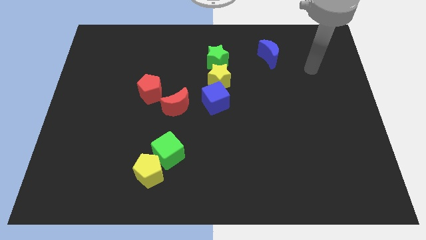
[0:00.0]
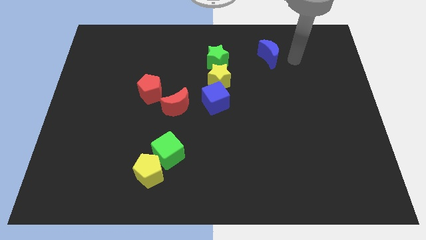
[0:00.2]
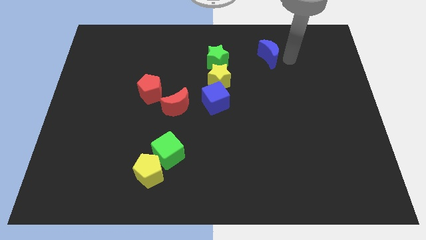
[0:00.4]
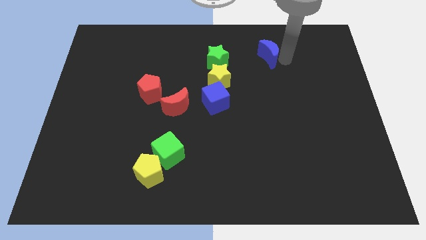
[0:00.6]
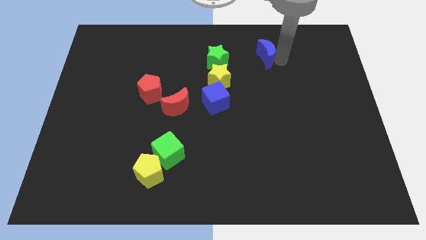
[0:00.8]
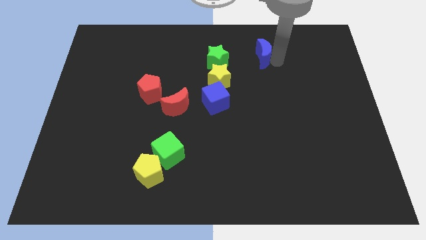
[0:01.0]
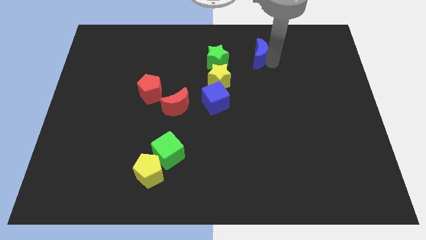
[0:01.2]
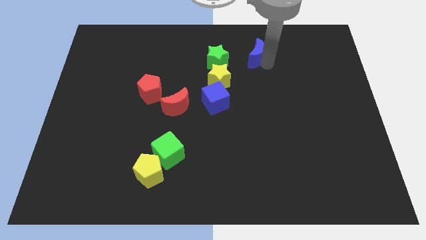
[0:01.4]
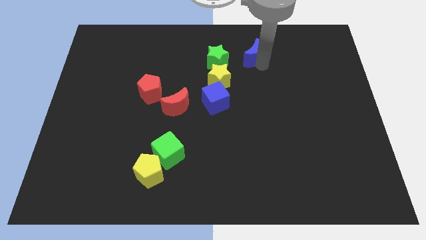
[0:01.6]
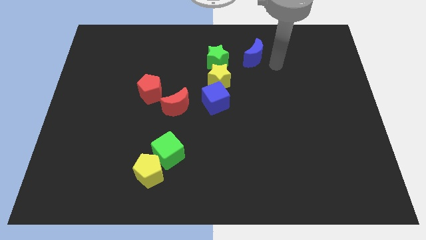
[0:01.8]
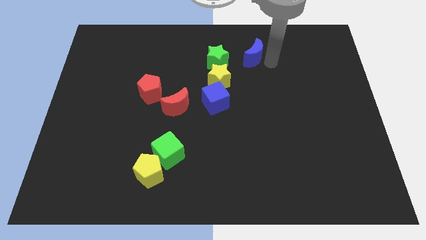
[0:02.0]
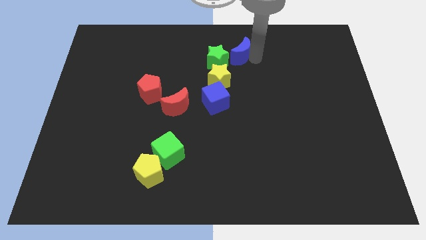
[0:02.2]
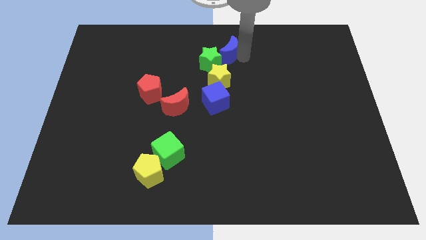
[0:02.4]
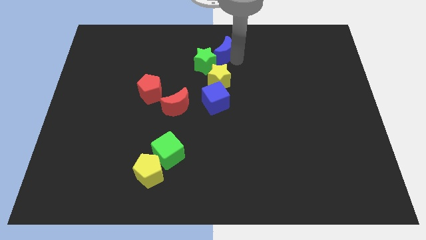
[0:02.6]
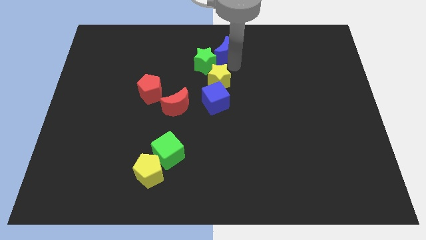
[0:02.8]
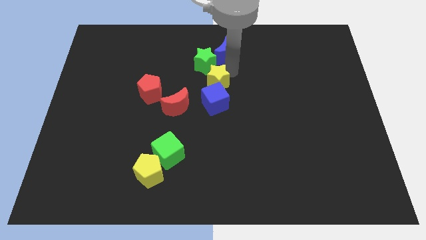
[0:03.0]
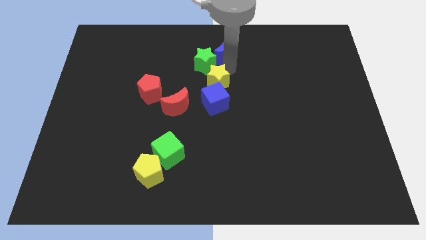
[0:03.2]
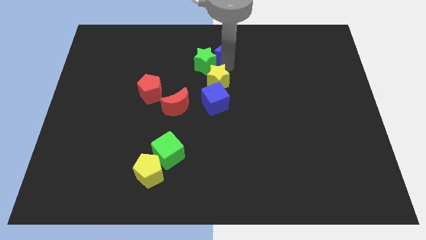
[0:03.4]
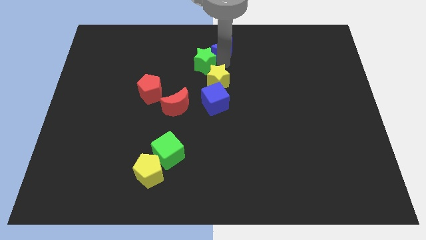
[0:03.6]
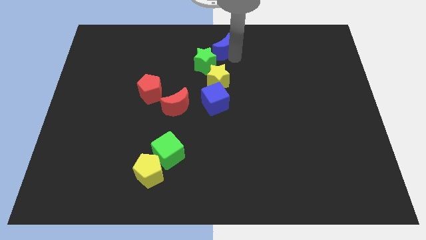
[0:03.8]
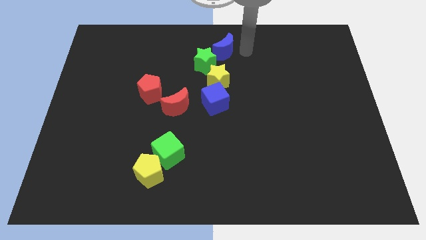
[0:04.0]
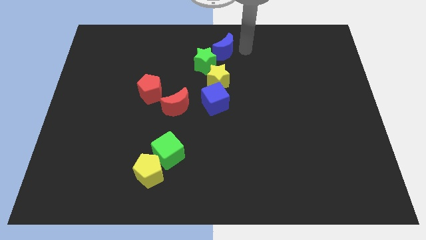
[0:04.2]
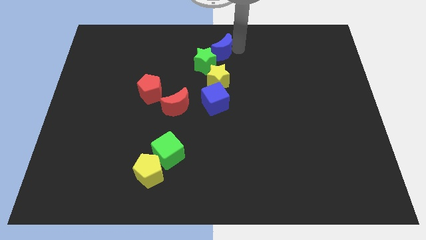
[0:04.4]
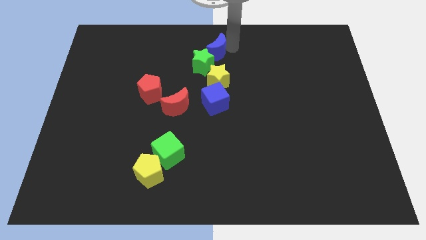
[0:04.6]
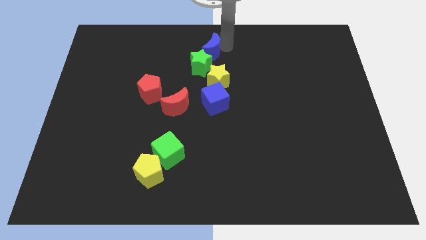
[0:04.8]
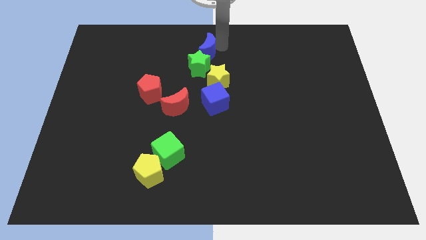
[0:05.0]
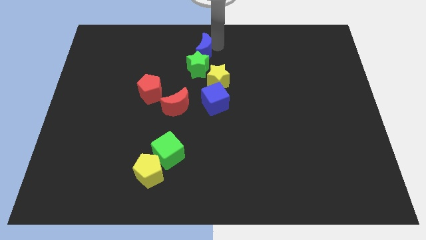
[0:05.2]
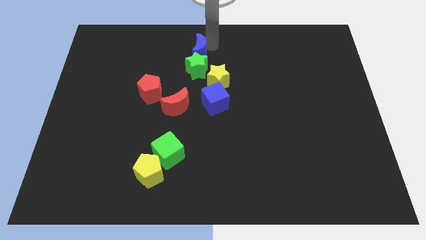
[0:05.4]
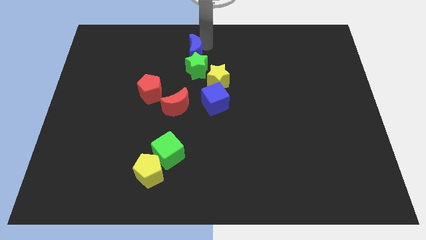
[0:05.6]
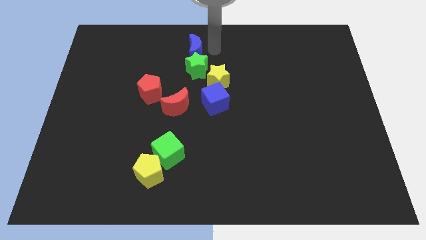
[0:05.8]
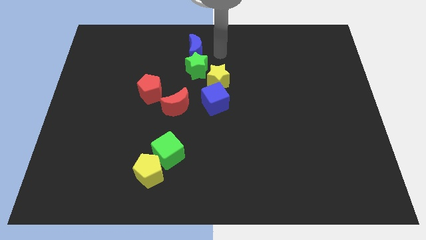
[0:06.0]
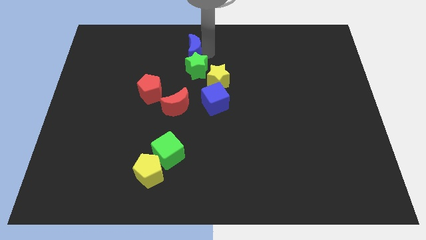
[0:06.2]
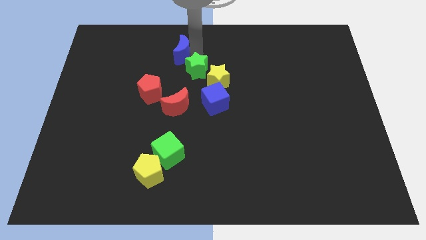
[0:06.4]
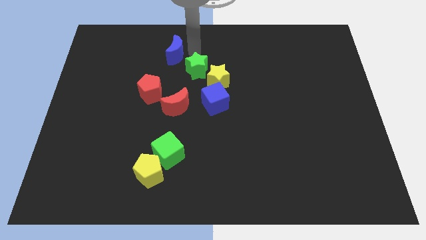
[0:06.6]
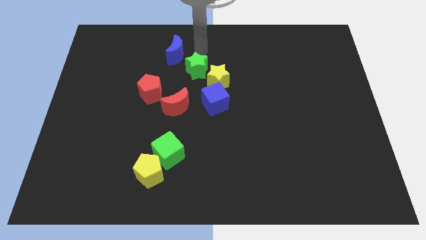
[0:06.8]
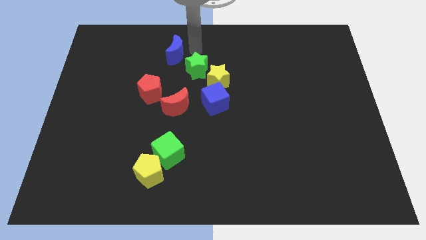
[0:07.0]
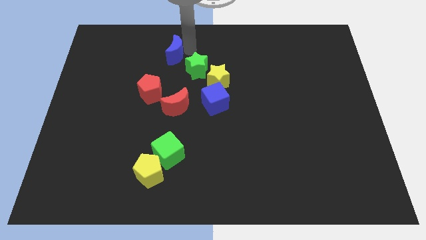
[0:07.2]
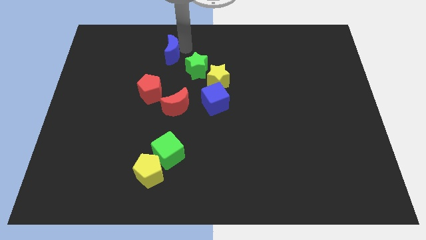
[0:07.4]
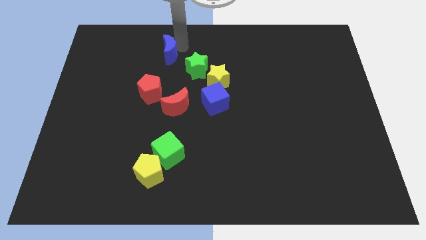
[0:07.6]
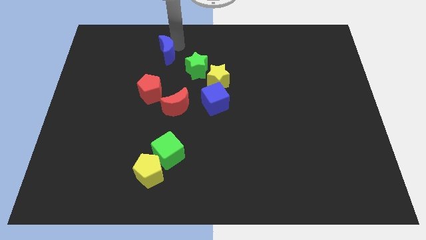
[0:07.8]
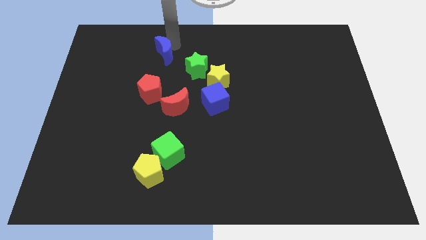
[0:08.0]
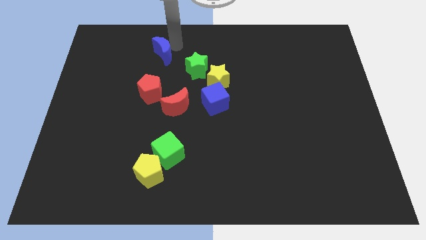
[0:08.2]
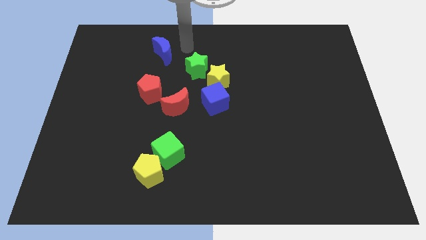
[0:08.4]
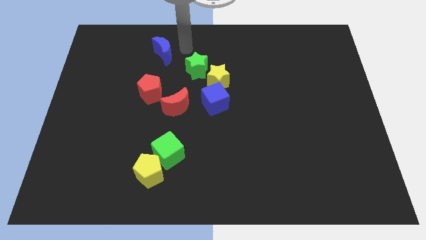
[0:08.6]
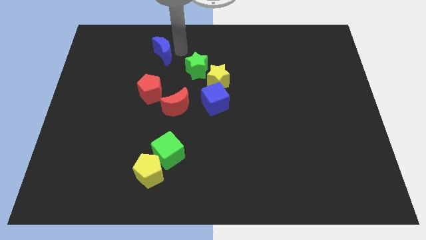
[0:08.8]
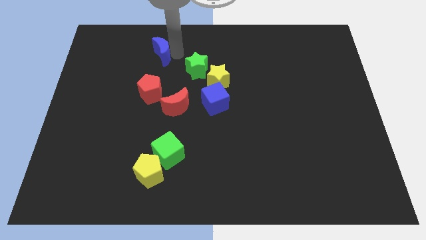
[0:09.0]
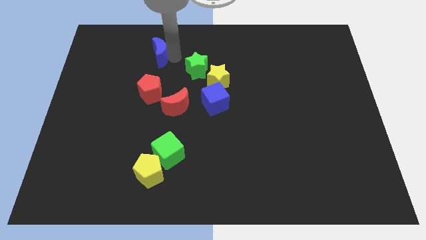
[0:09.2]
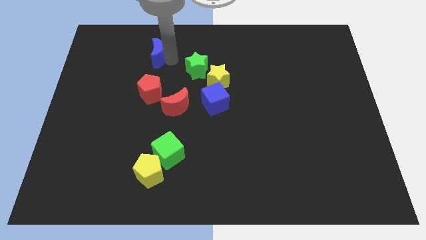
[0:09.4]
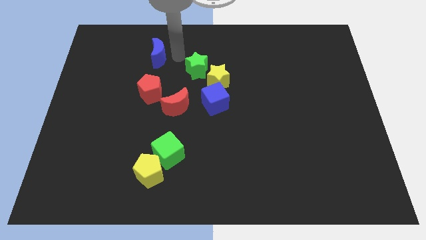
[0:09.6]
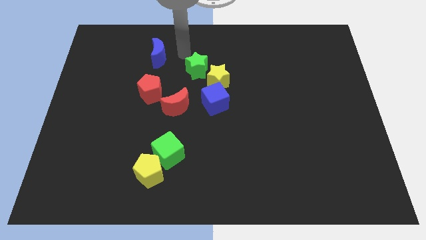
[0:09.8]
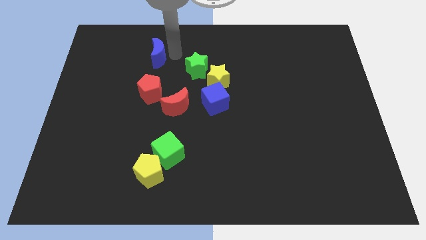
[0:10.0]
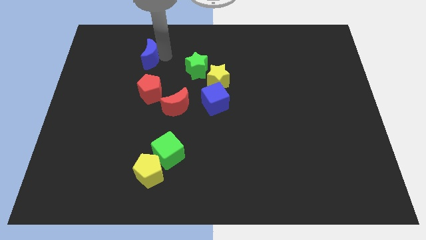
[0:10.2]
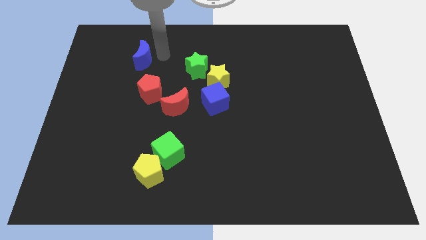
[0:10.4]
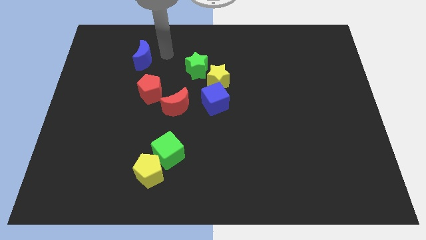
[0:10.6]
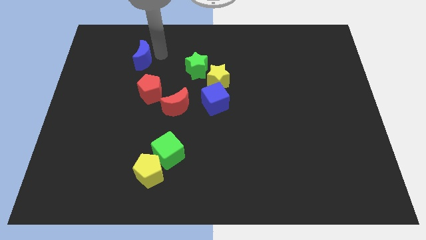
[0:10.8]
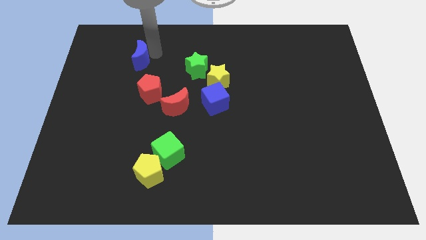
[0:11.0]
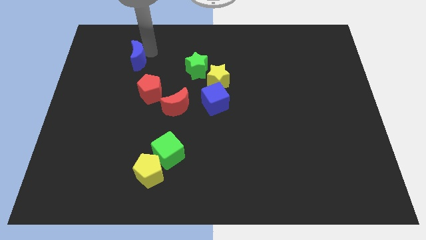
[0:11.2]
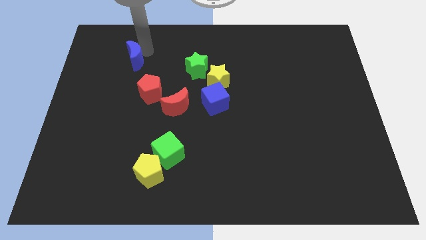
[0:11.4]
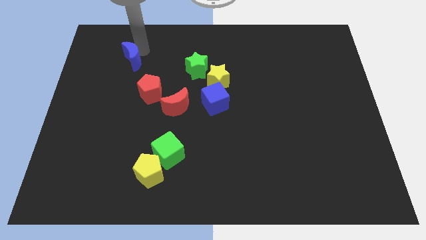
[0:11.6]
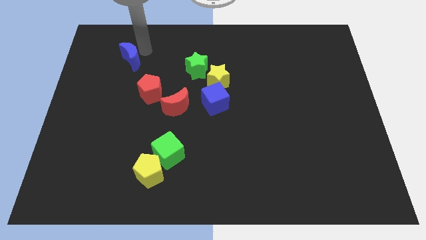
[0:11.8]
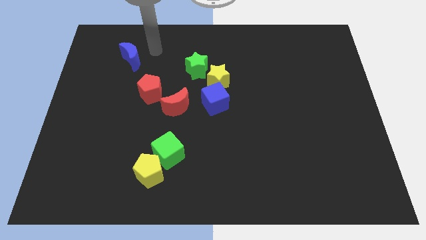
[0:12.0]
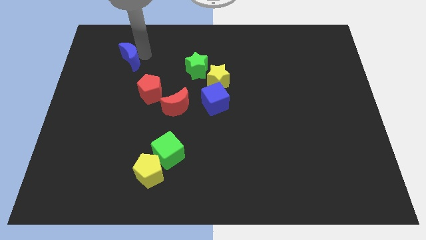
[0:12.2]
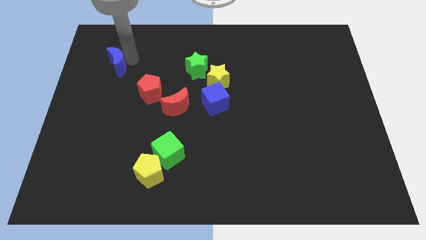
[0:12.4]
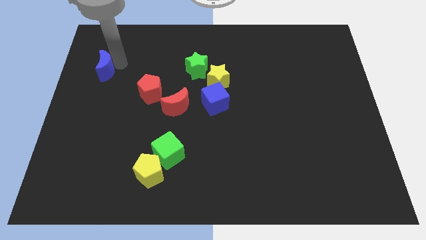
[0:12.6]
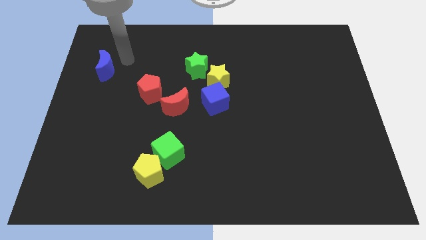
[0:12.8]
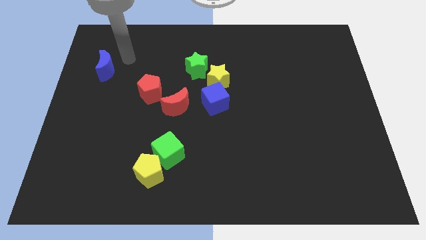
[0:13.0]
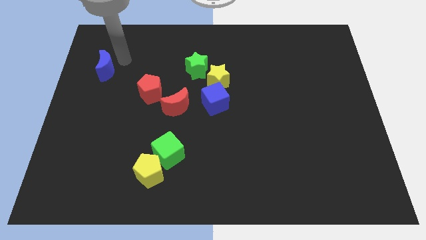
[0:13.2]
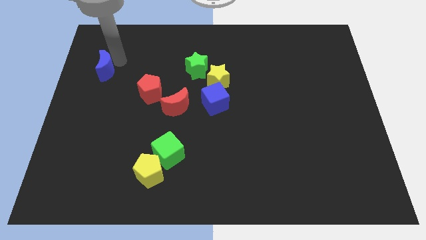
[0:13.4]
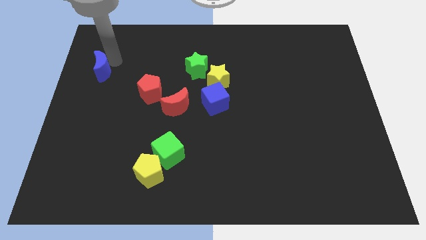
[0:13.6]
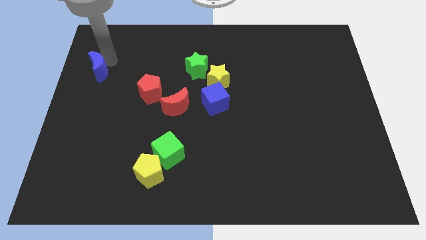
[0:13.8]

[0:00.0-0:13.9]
move the blue moon to the left side
